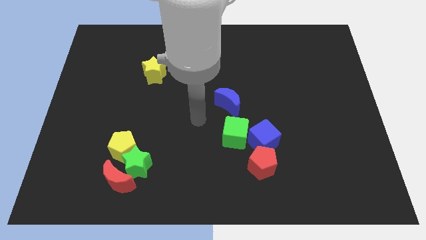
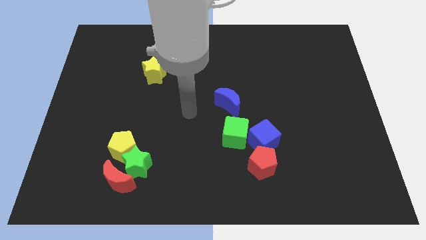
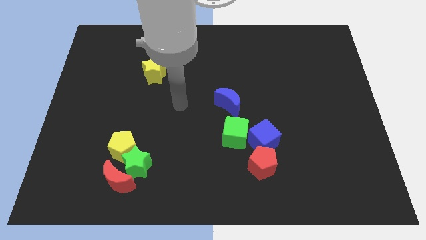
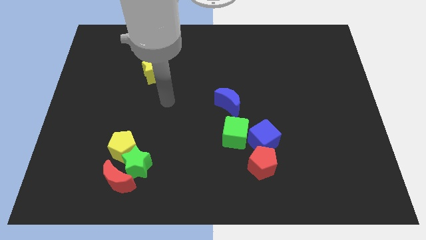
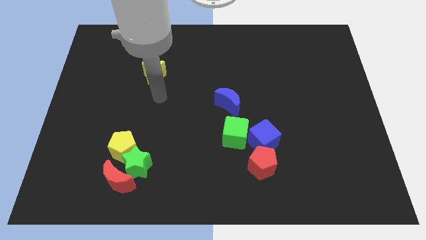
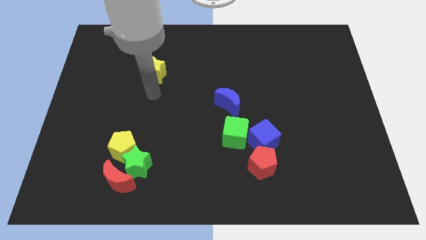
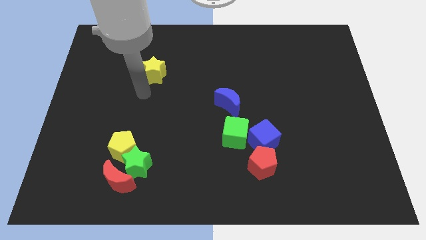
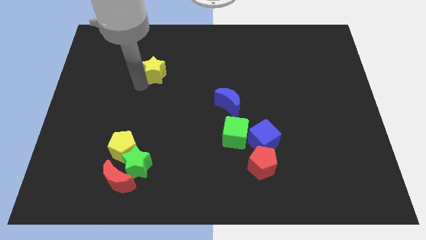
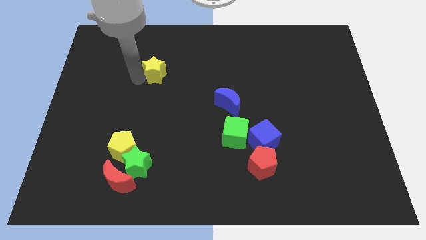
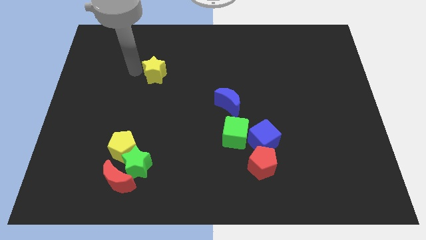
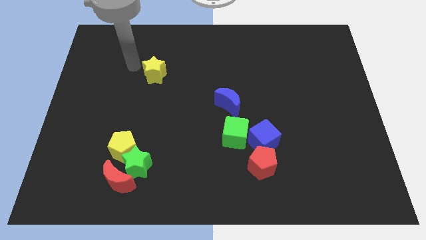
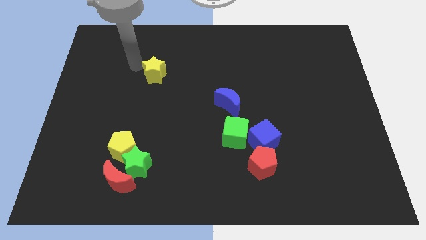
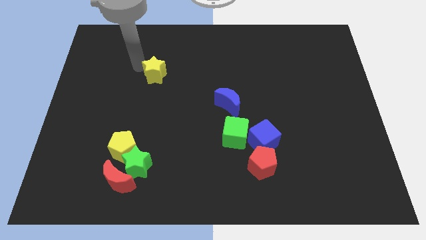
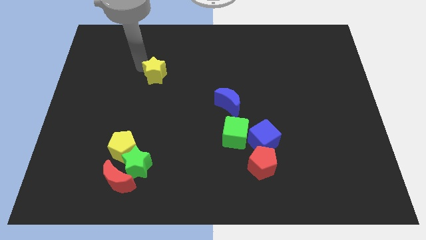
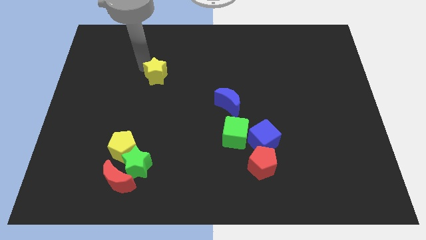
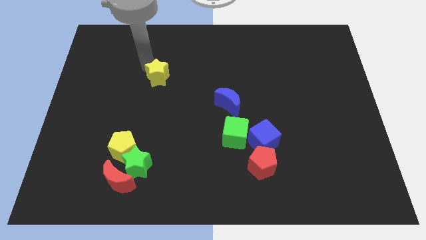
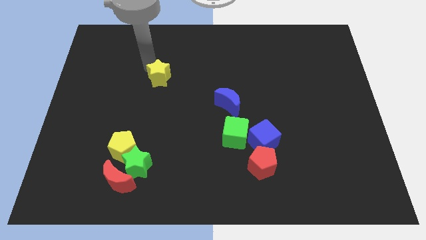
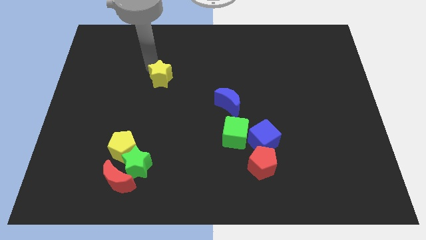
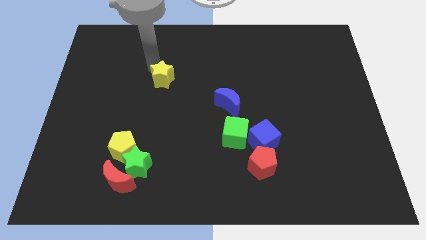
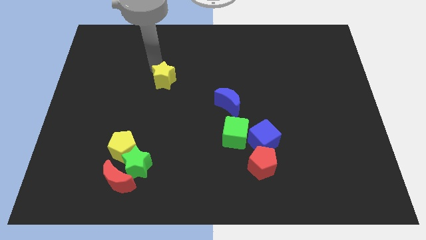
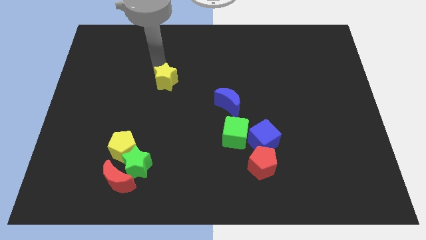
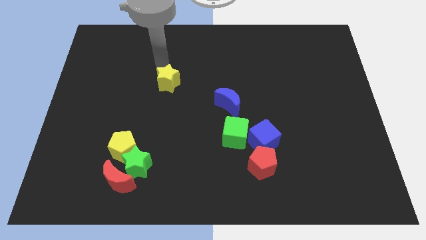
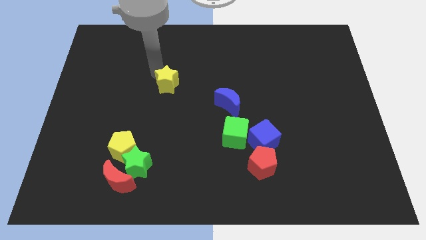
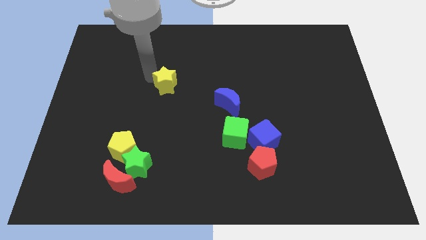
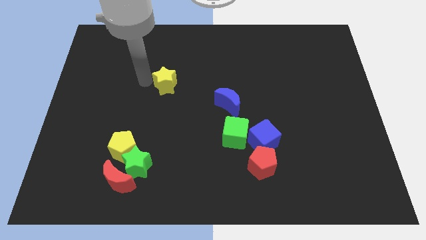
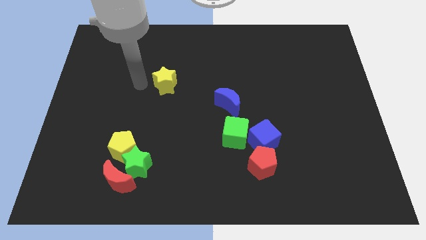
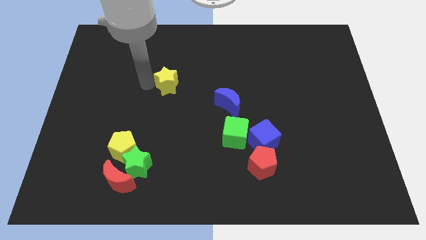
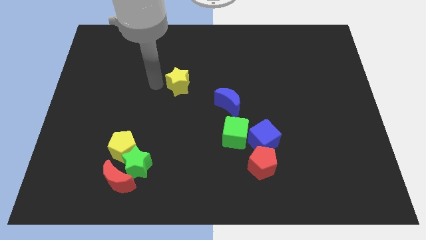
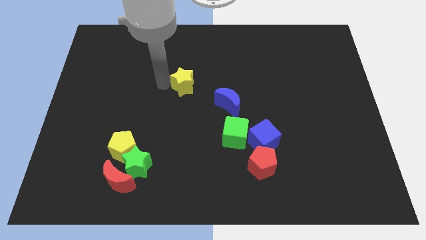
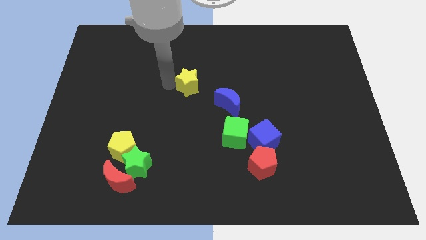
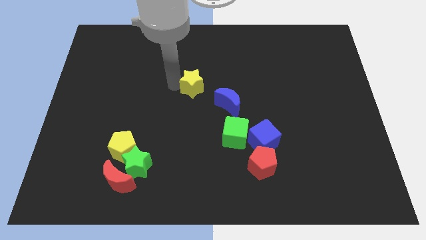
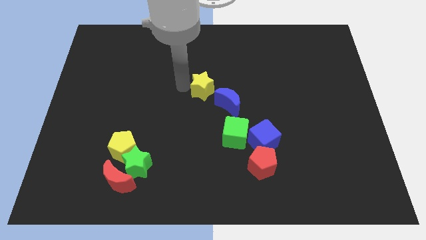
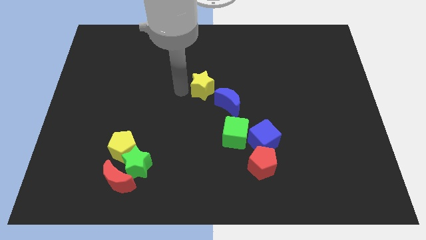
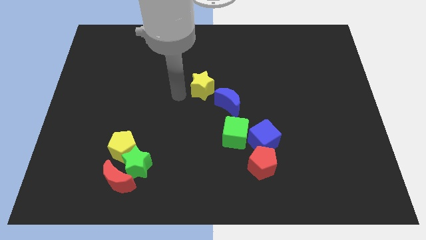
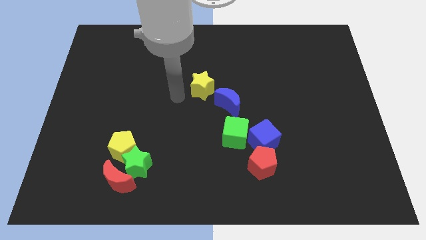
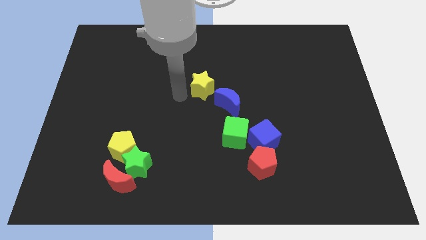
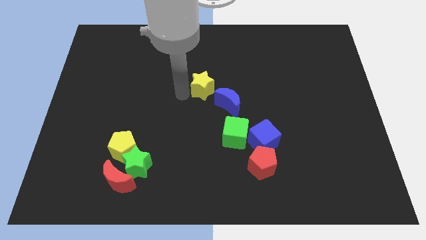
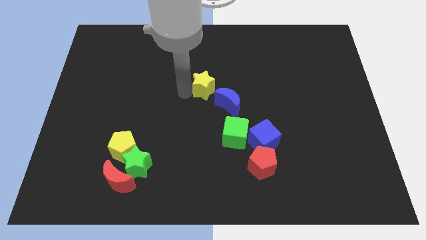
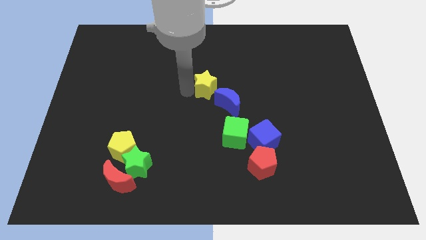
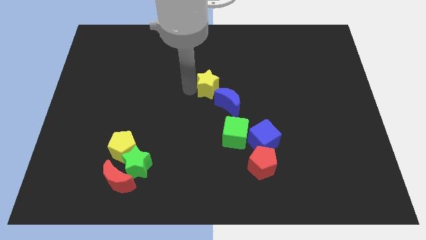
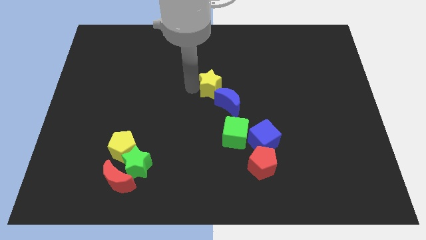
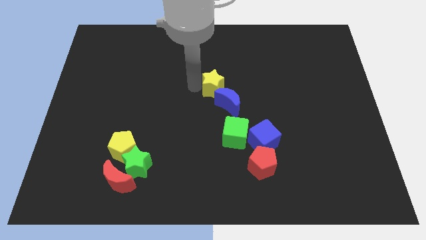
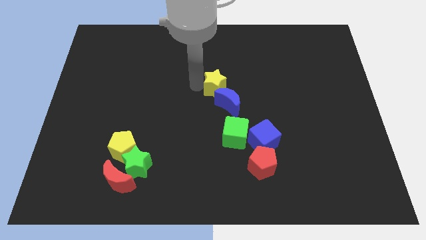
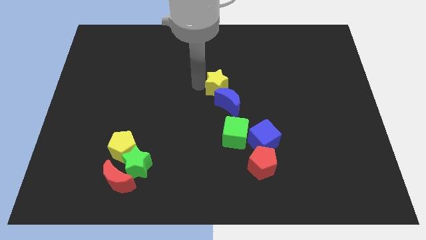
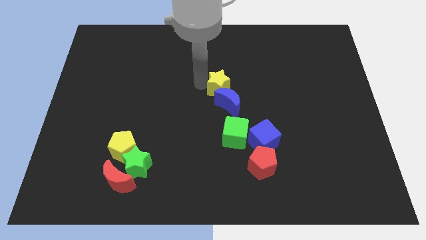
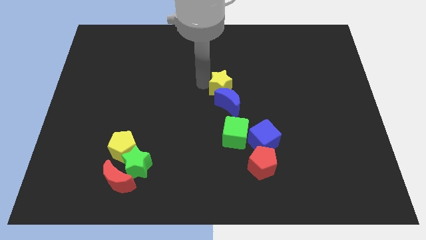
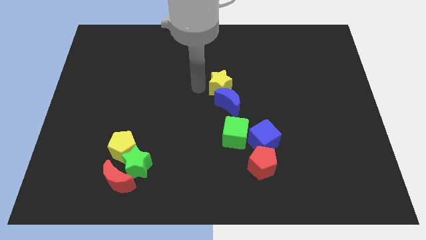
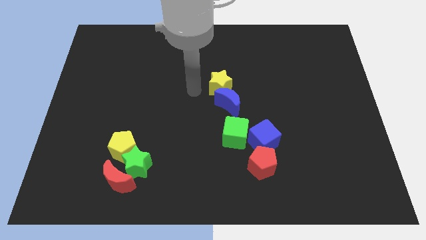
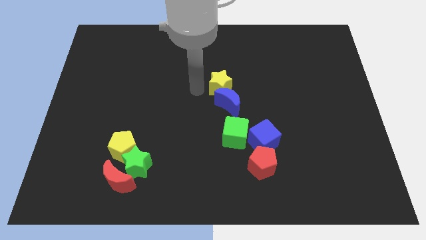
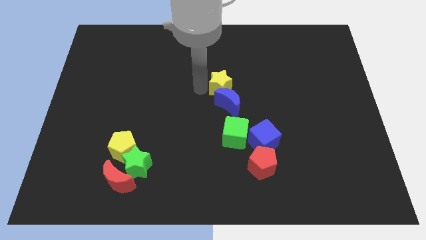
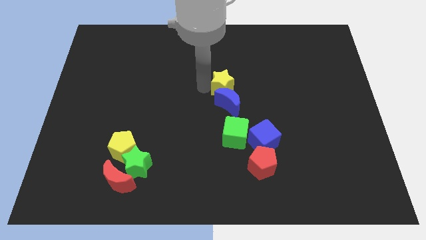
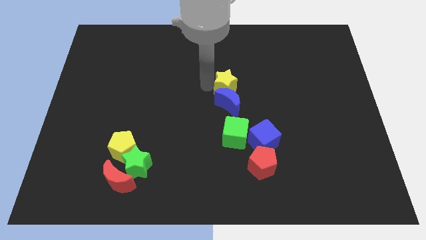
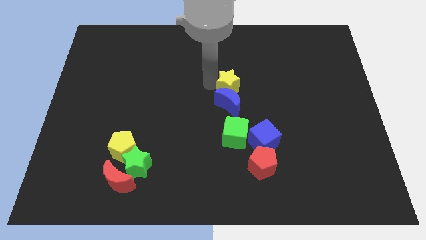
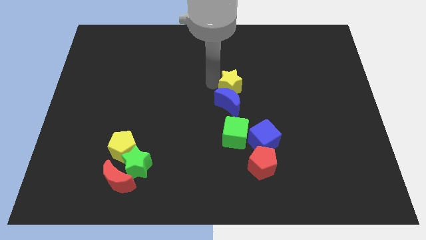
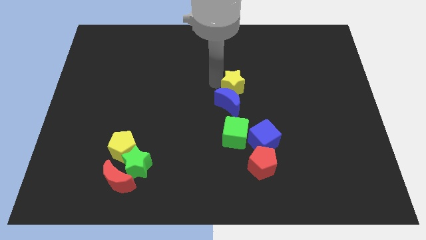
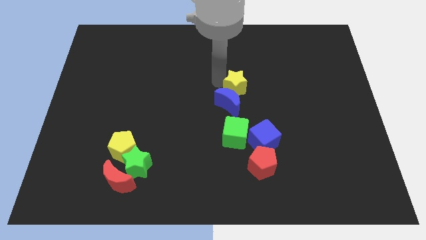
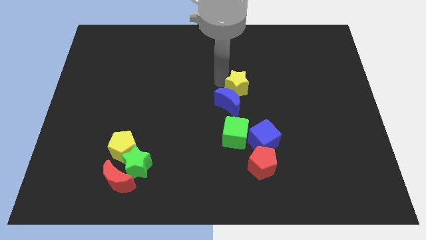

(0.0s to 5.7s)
move the yellow star right

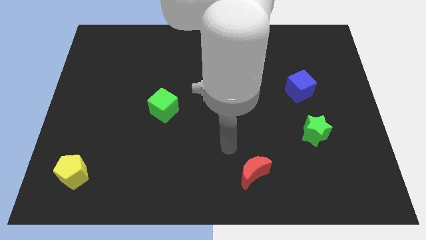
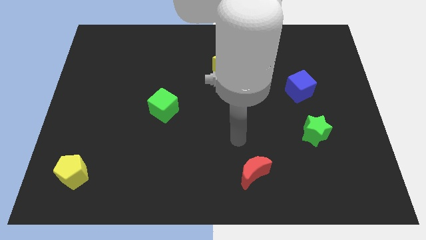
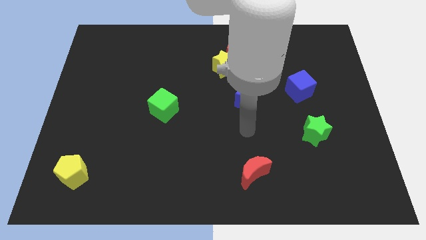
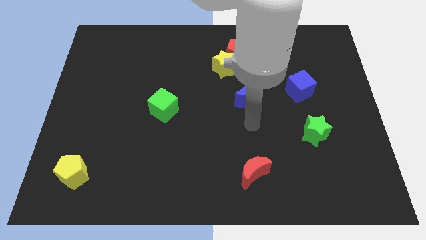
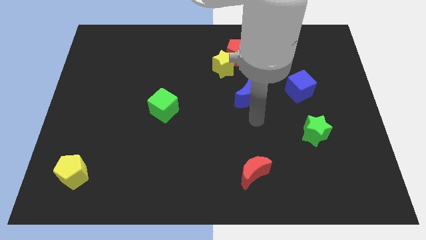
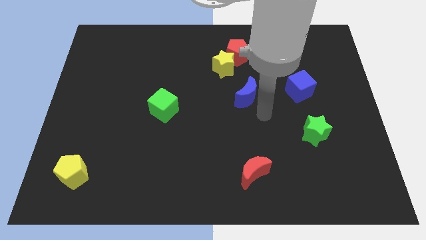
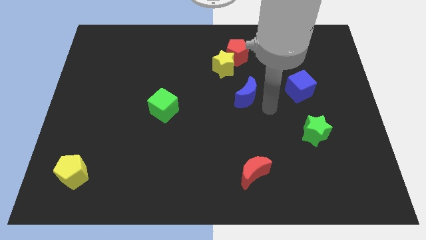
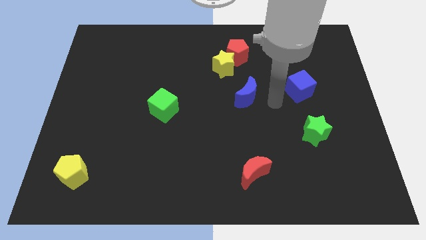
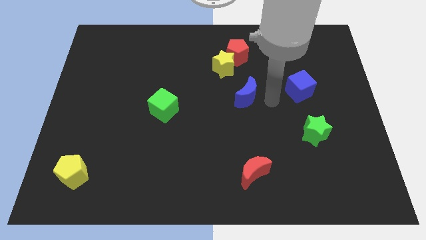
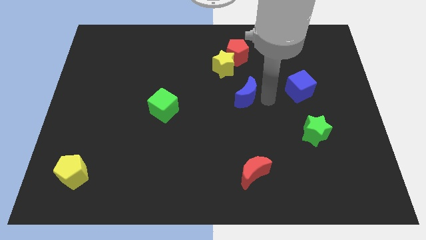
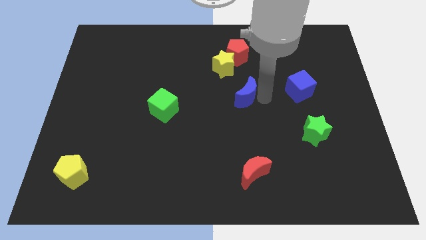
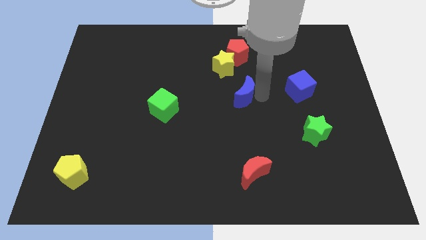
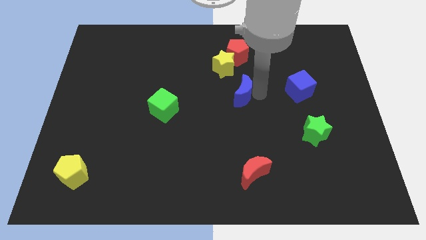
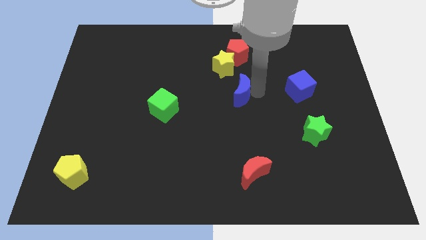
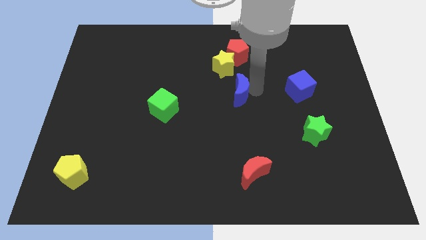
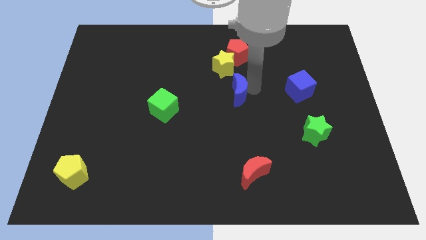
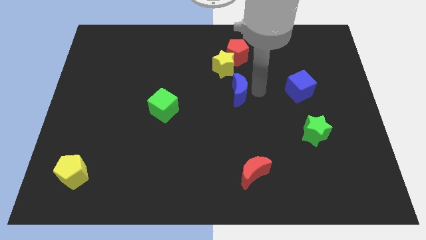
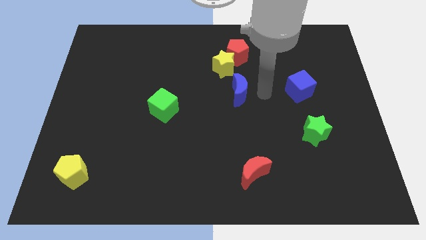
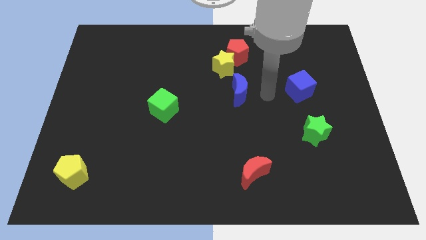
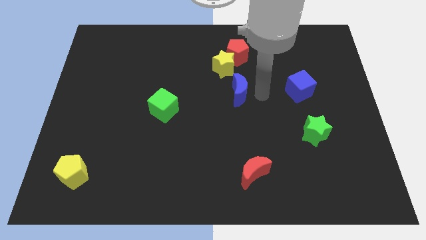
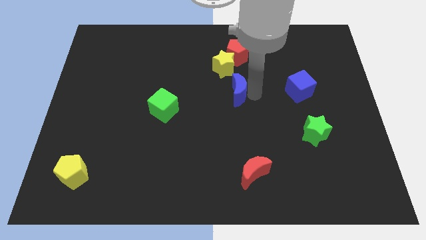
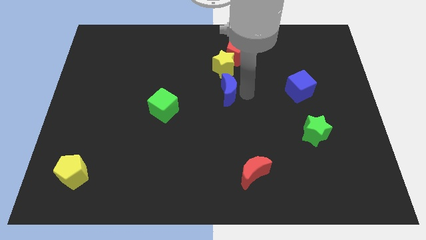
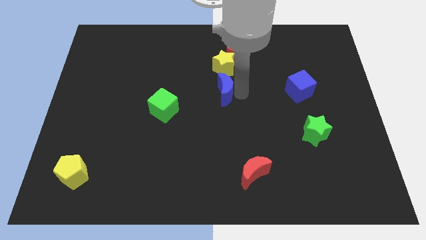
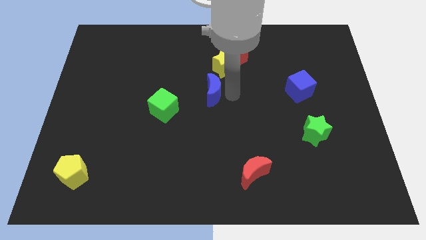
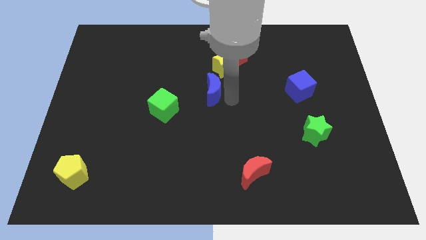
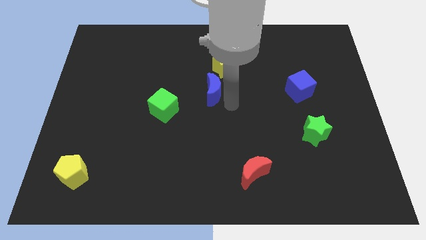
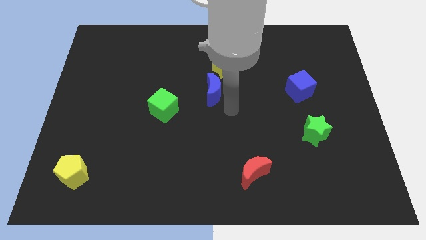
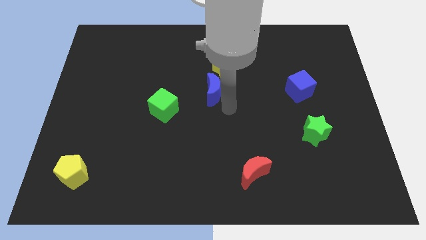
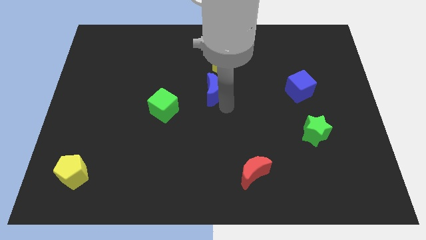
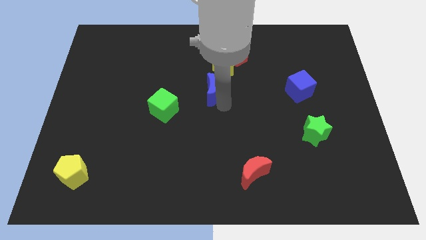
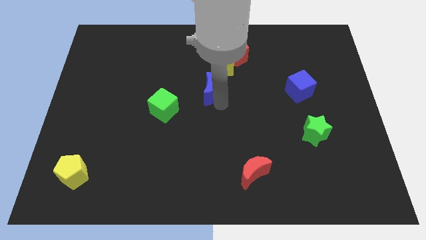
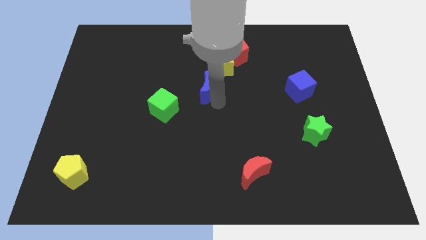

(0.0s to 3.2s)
slightly move the blue moon diagonally up and left
